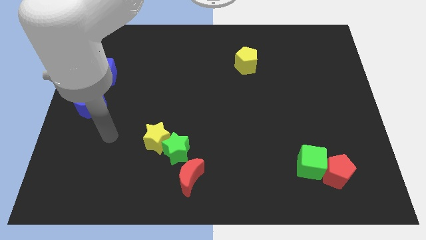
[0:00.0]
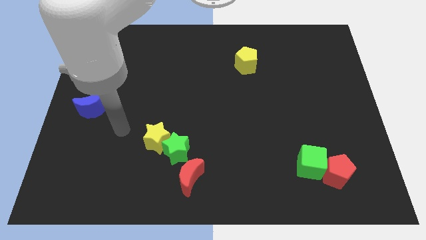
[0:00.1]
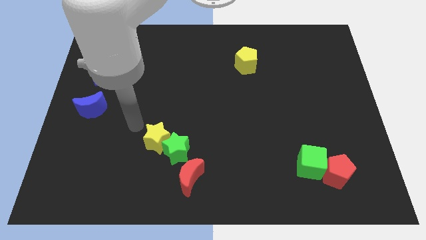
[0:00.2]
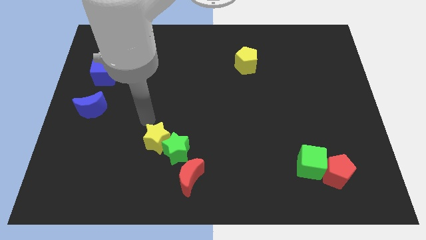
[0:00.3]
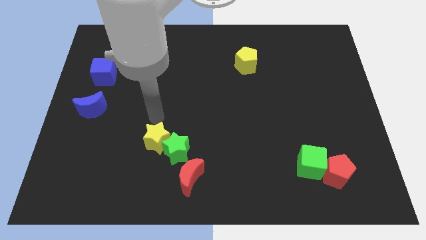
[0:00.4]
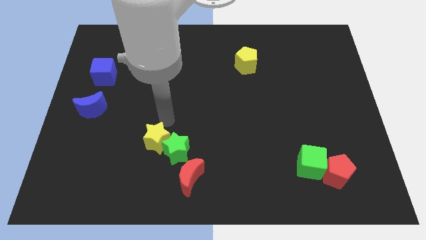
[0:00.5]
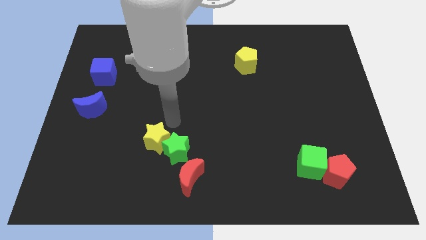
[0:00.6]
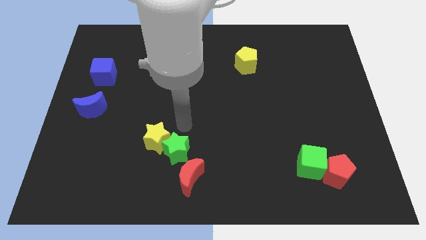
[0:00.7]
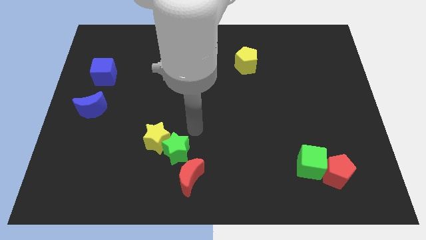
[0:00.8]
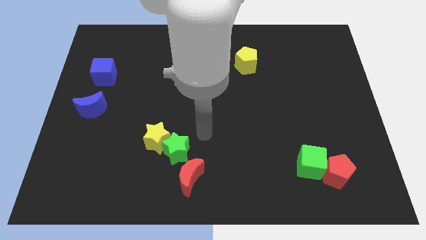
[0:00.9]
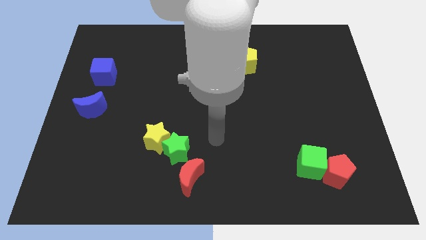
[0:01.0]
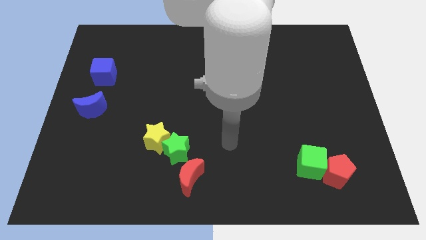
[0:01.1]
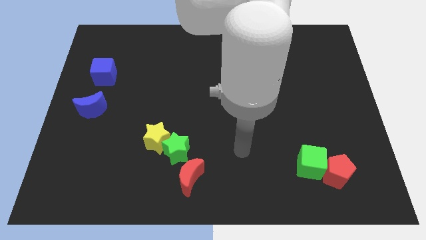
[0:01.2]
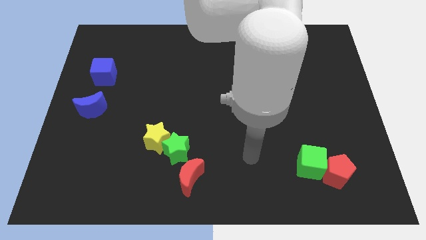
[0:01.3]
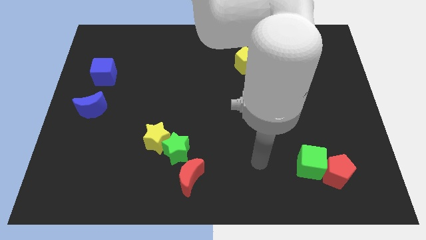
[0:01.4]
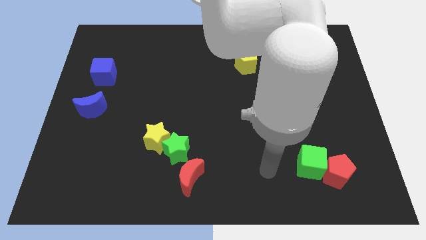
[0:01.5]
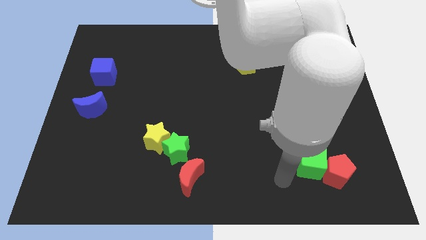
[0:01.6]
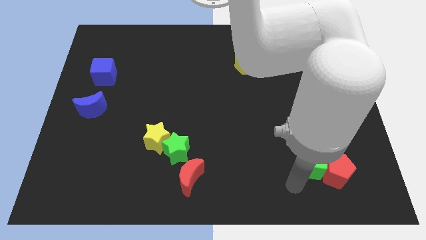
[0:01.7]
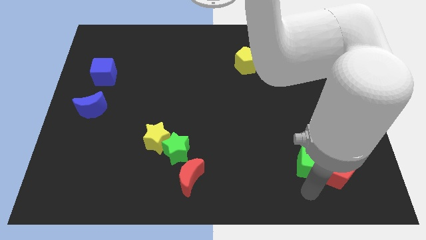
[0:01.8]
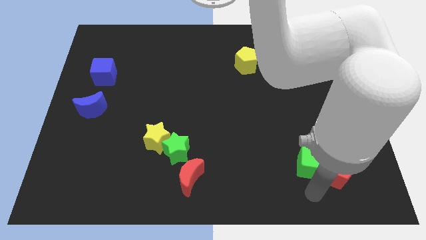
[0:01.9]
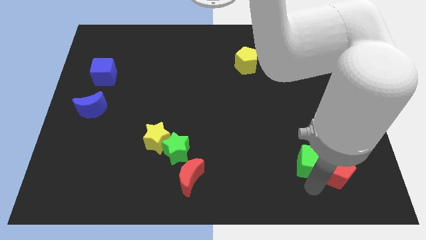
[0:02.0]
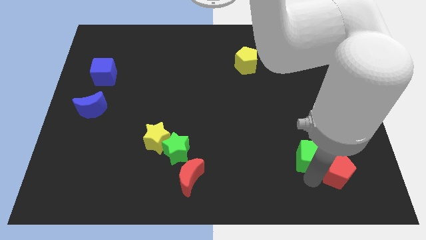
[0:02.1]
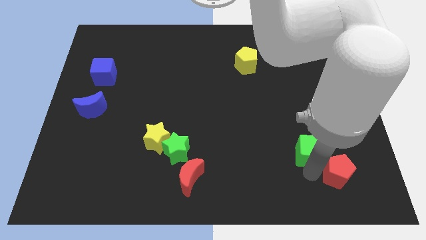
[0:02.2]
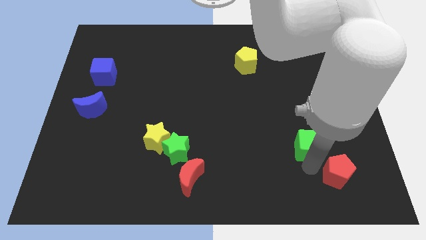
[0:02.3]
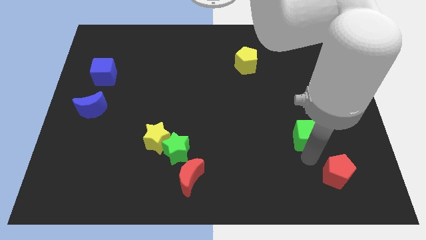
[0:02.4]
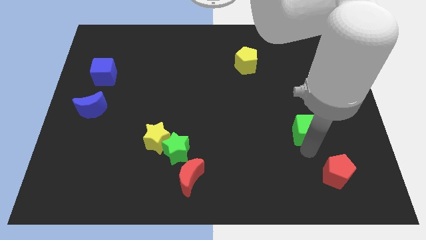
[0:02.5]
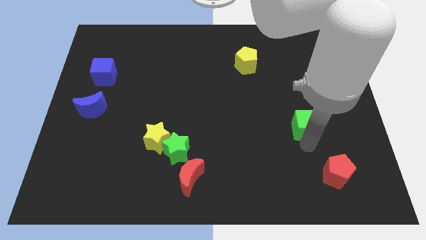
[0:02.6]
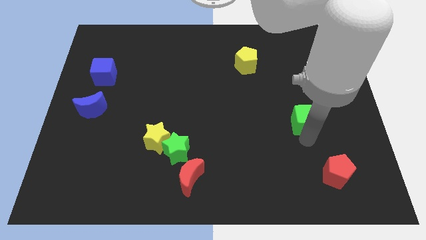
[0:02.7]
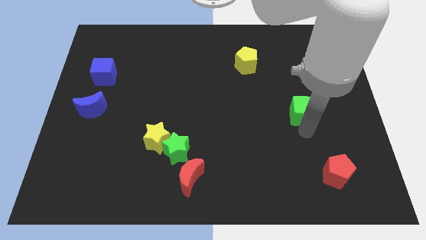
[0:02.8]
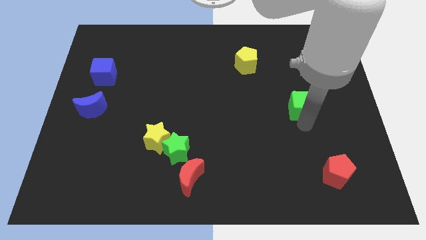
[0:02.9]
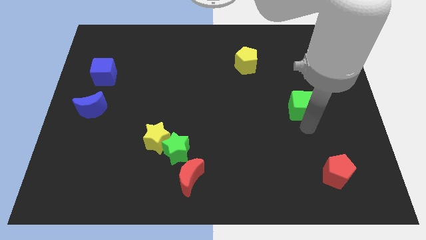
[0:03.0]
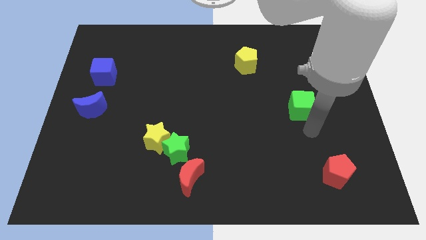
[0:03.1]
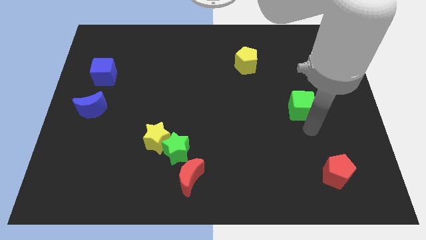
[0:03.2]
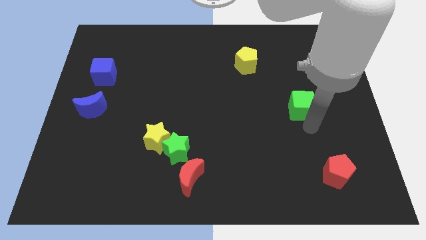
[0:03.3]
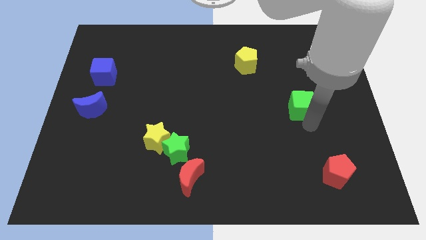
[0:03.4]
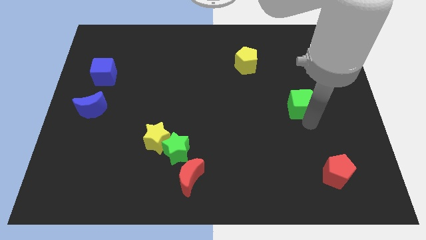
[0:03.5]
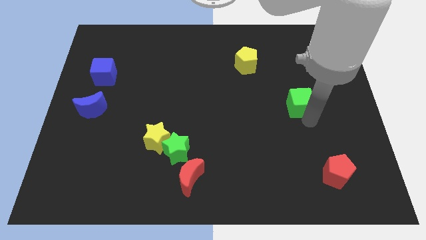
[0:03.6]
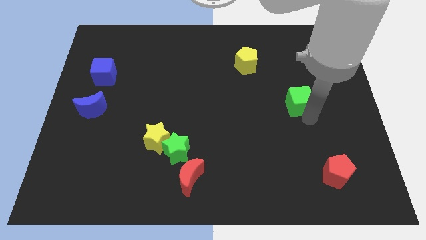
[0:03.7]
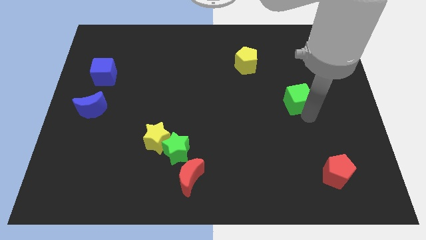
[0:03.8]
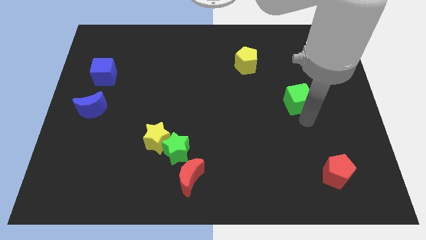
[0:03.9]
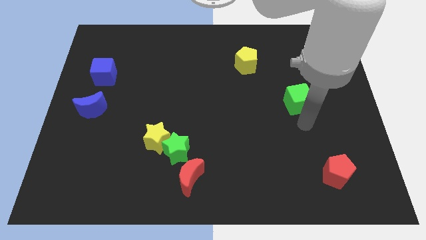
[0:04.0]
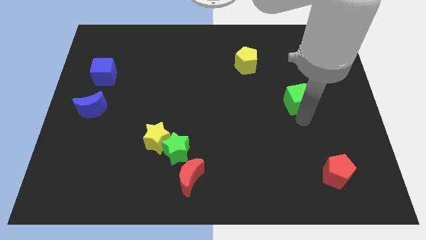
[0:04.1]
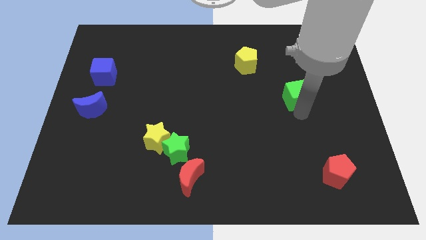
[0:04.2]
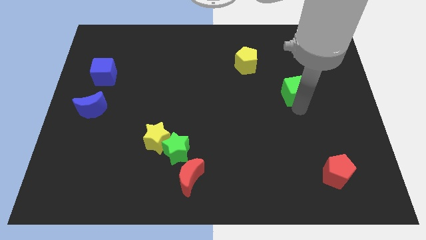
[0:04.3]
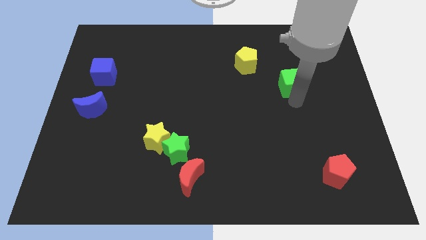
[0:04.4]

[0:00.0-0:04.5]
push the green cube upwards

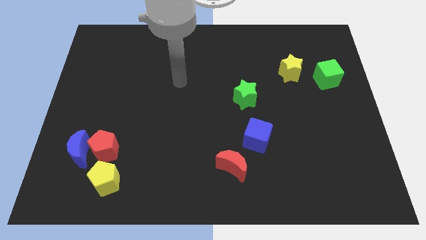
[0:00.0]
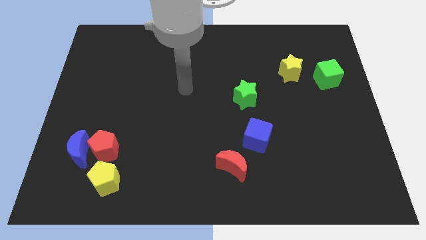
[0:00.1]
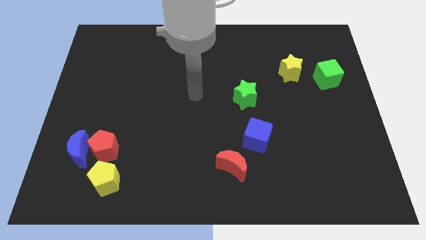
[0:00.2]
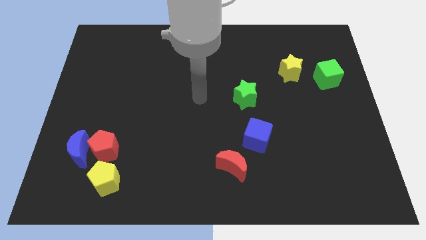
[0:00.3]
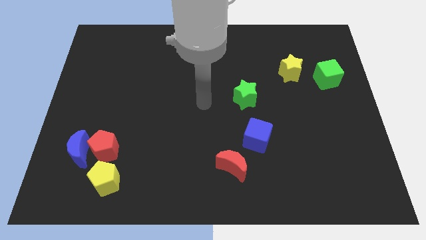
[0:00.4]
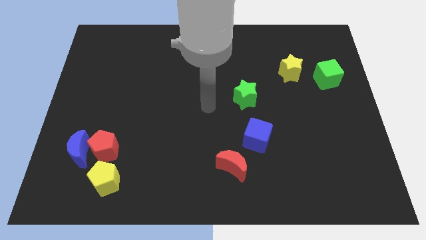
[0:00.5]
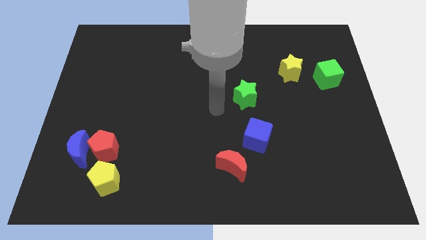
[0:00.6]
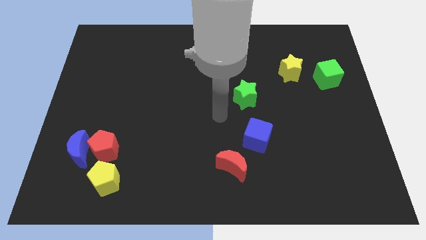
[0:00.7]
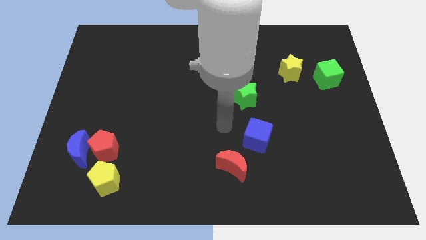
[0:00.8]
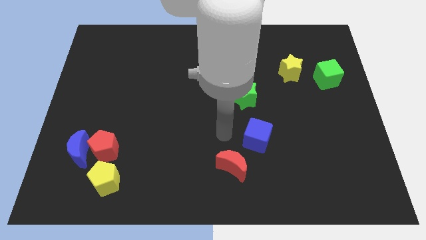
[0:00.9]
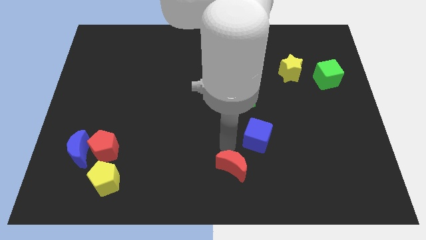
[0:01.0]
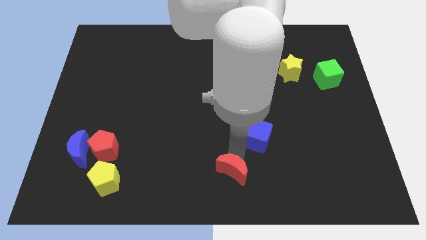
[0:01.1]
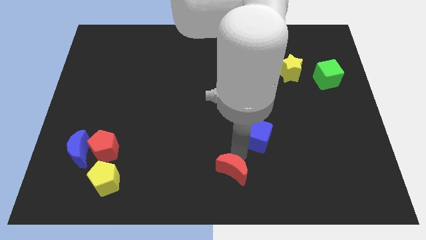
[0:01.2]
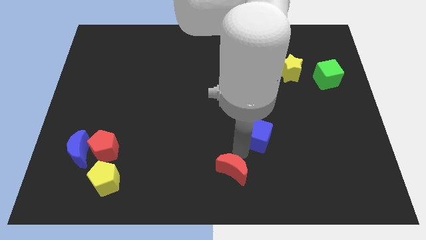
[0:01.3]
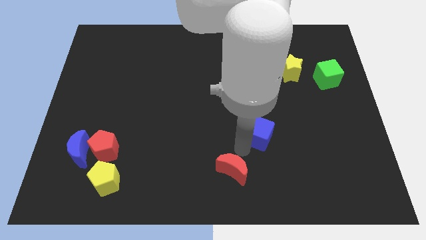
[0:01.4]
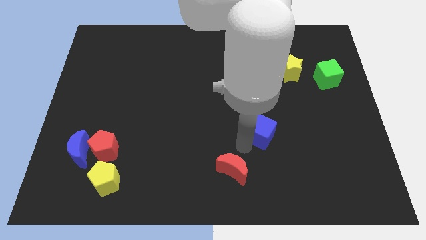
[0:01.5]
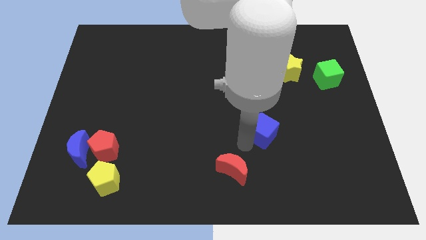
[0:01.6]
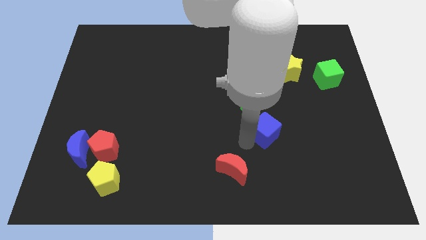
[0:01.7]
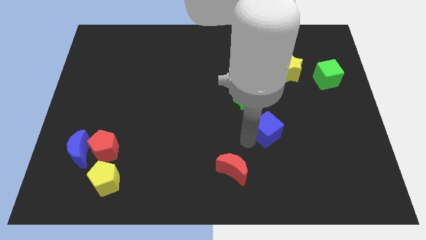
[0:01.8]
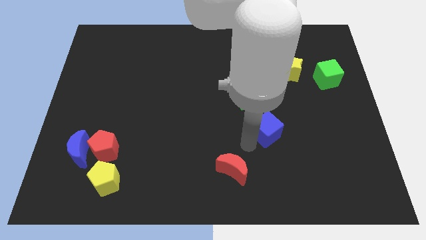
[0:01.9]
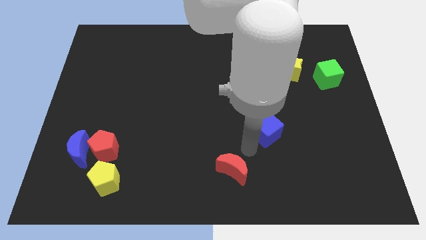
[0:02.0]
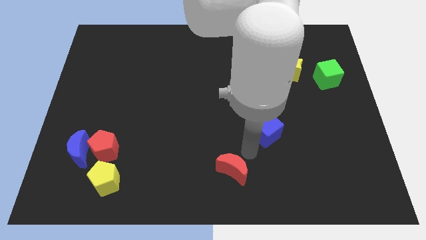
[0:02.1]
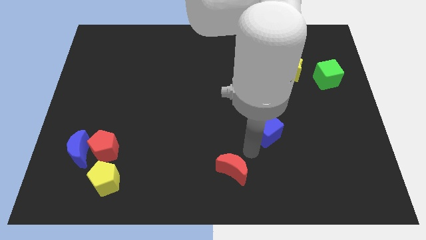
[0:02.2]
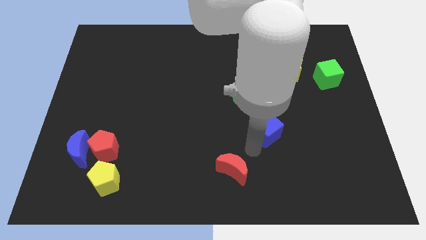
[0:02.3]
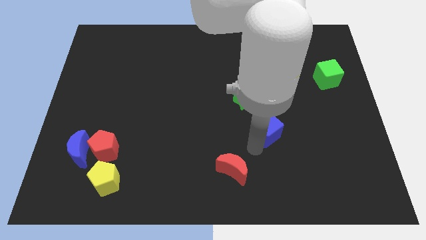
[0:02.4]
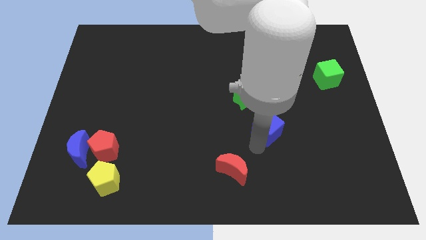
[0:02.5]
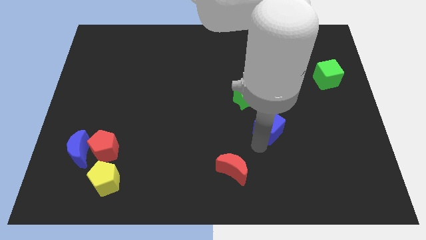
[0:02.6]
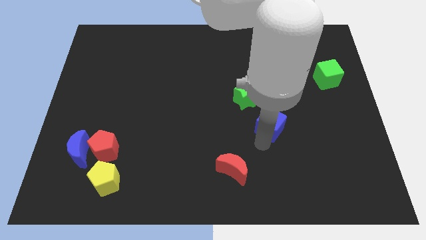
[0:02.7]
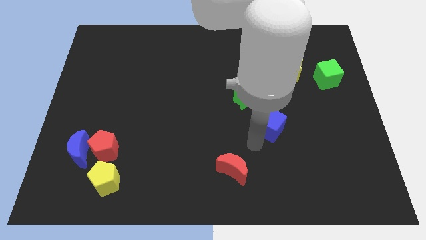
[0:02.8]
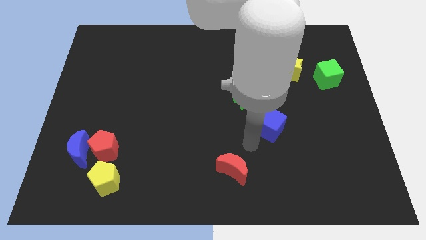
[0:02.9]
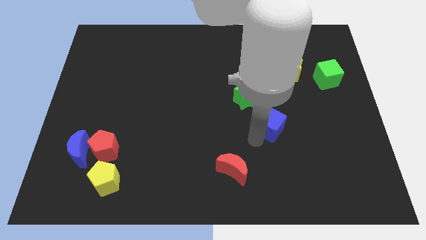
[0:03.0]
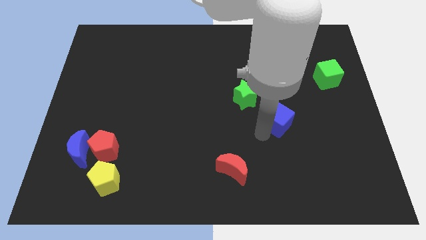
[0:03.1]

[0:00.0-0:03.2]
slide the blue cube a little bit upwards and to the right

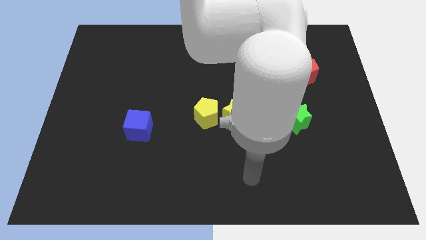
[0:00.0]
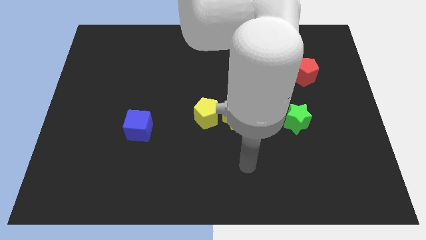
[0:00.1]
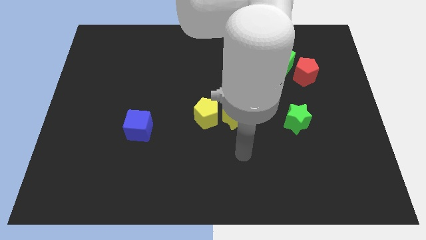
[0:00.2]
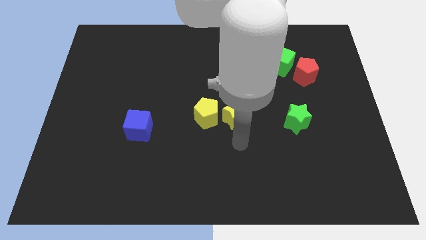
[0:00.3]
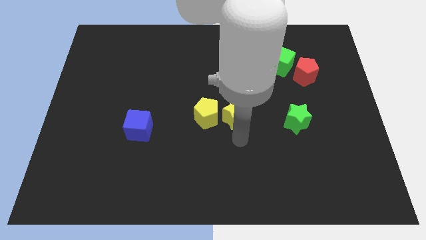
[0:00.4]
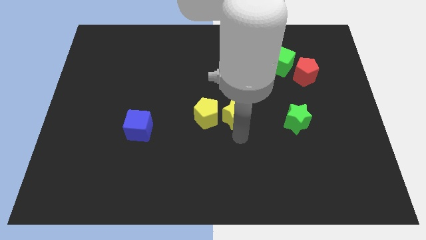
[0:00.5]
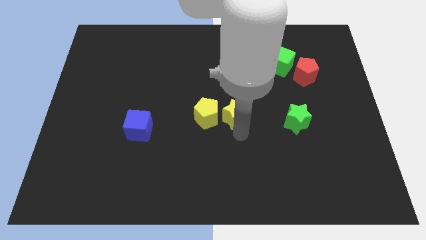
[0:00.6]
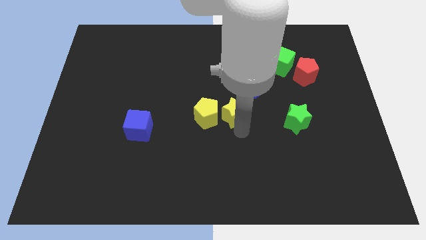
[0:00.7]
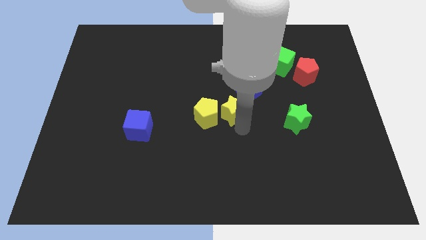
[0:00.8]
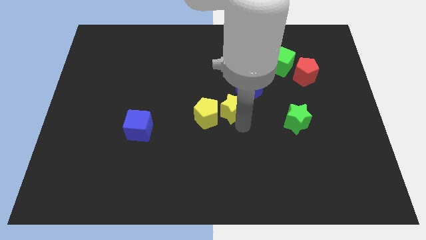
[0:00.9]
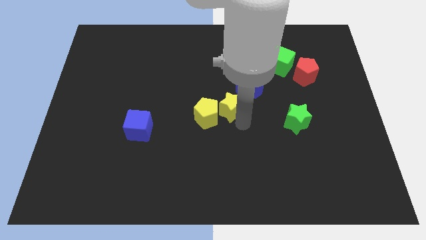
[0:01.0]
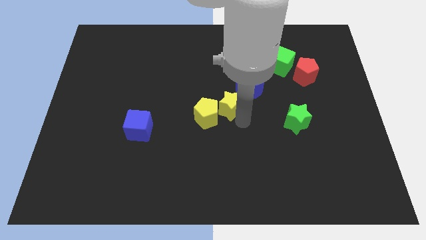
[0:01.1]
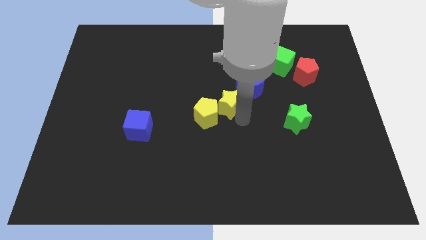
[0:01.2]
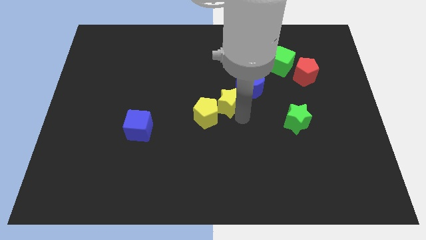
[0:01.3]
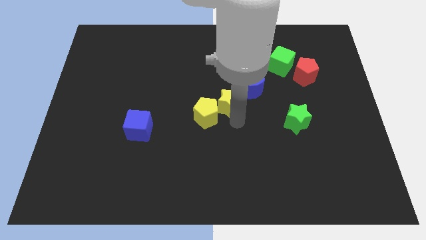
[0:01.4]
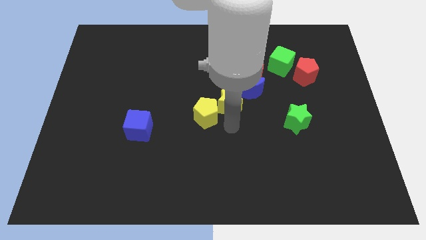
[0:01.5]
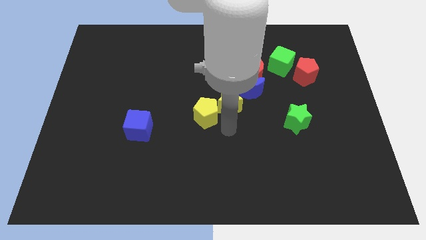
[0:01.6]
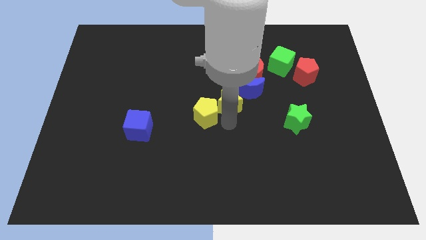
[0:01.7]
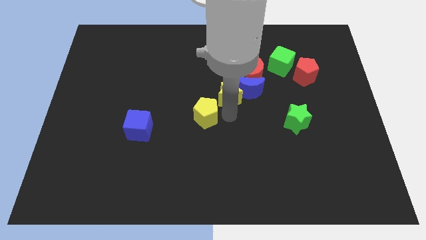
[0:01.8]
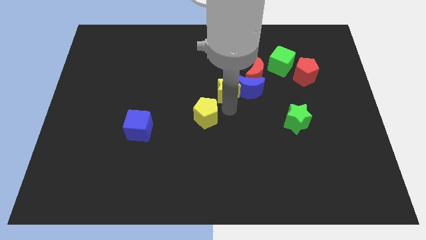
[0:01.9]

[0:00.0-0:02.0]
slightly slide the yellow star up
